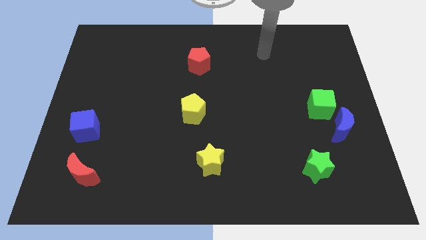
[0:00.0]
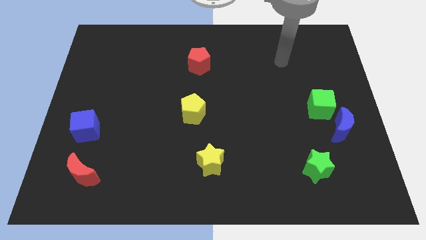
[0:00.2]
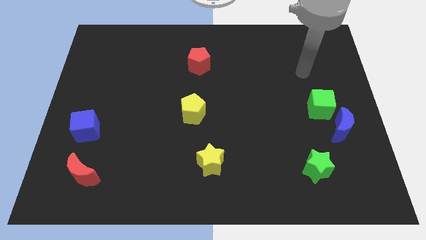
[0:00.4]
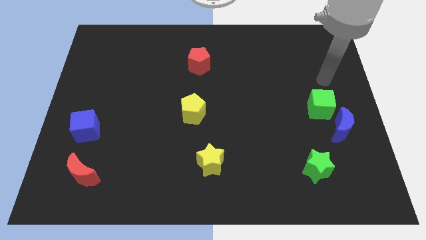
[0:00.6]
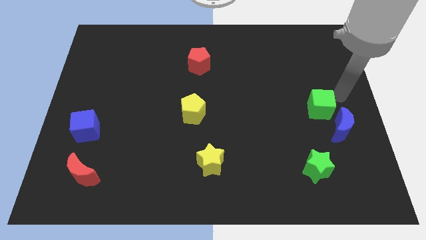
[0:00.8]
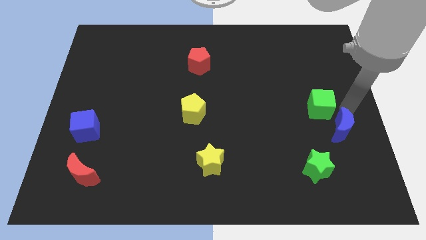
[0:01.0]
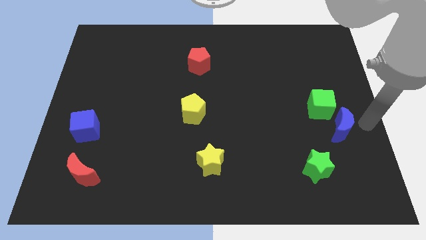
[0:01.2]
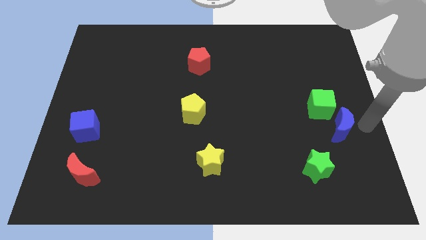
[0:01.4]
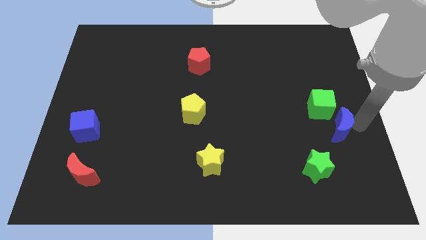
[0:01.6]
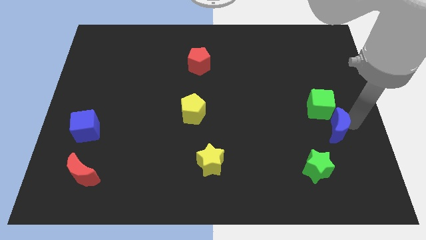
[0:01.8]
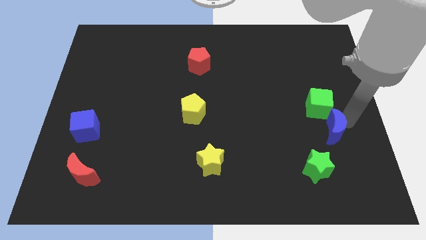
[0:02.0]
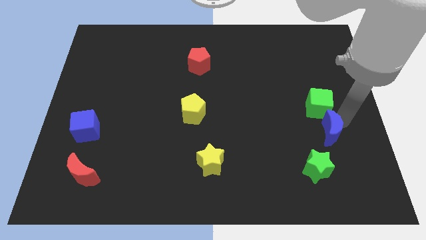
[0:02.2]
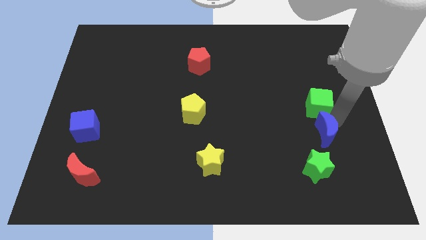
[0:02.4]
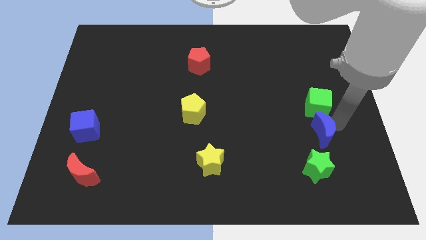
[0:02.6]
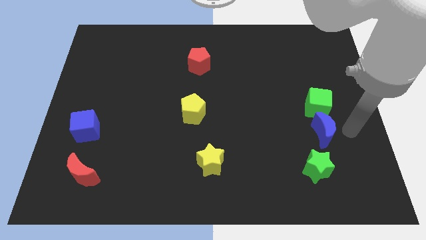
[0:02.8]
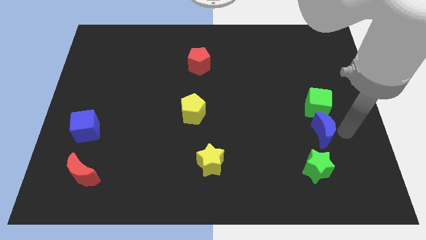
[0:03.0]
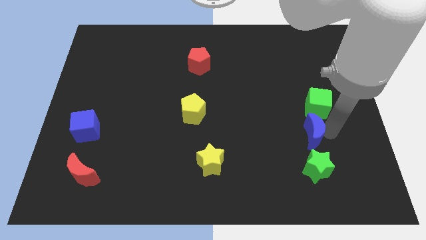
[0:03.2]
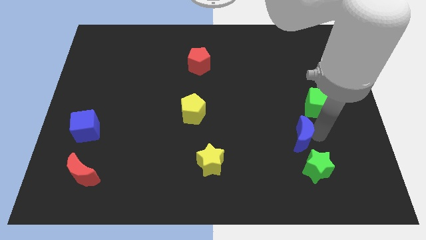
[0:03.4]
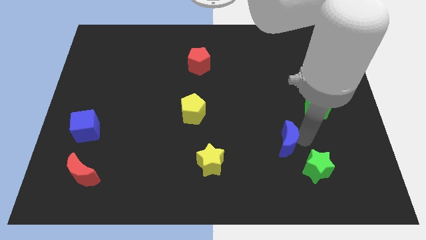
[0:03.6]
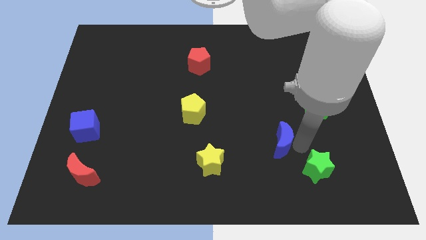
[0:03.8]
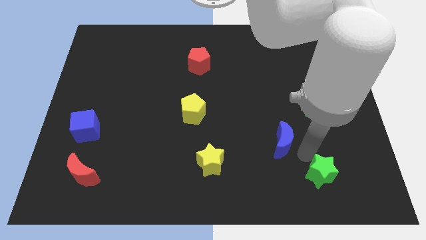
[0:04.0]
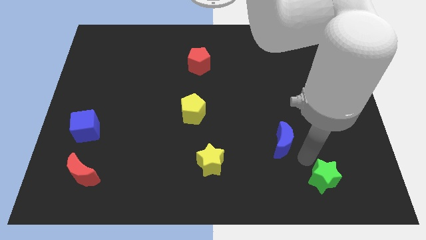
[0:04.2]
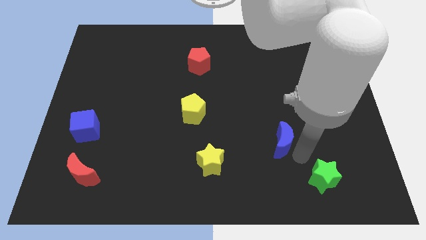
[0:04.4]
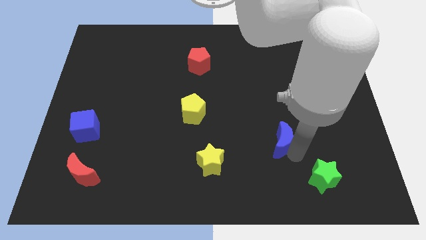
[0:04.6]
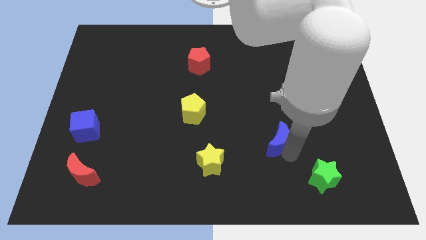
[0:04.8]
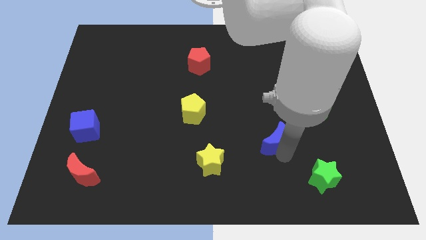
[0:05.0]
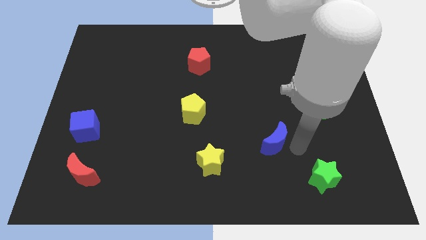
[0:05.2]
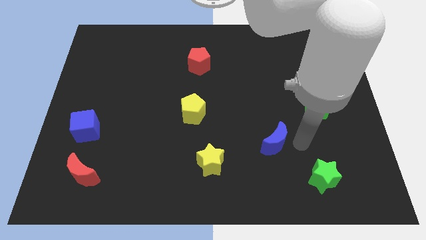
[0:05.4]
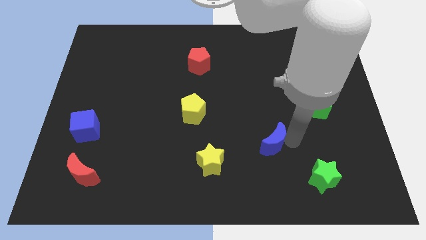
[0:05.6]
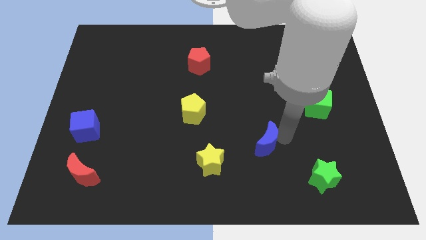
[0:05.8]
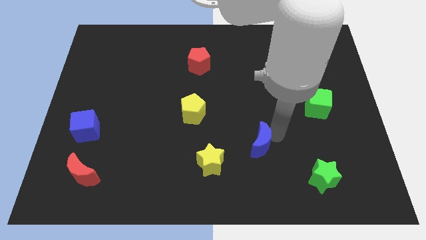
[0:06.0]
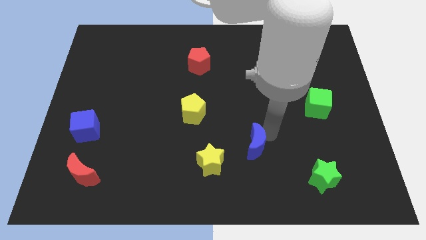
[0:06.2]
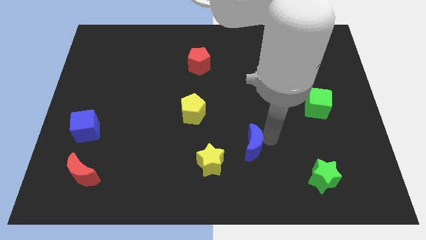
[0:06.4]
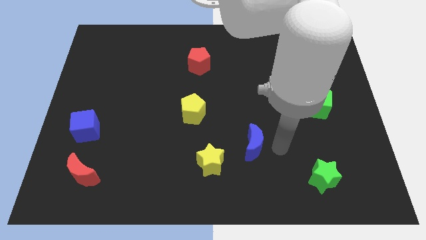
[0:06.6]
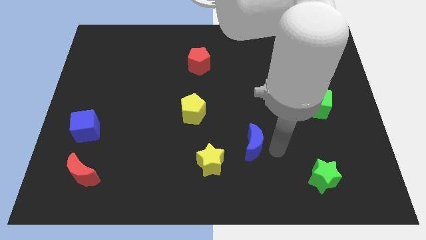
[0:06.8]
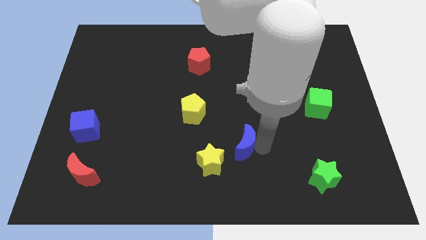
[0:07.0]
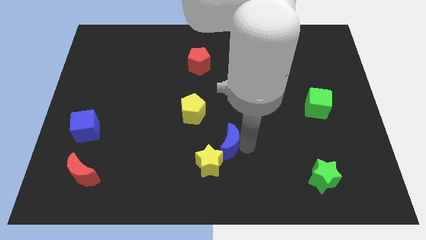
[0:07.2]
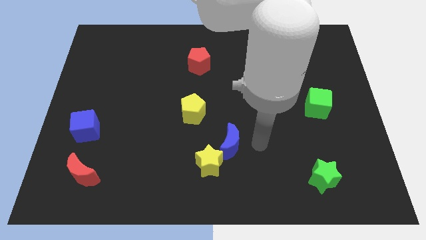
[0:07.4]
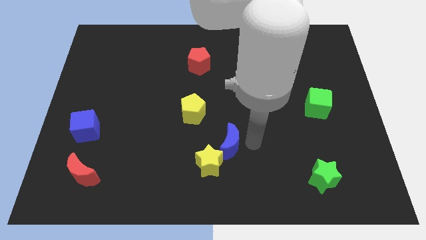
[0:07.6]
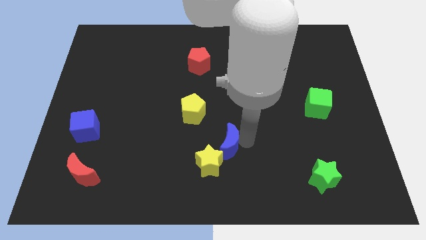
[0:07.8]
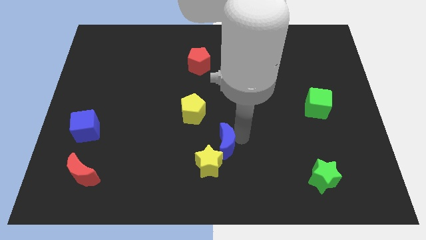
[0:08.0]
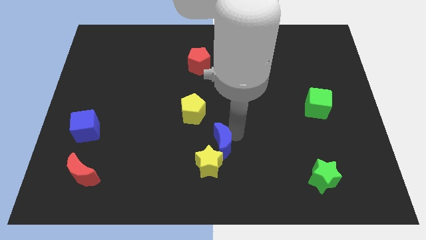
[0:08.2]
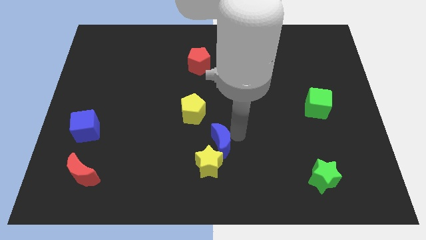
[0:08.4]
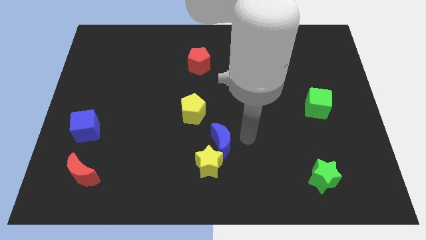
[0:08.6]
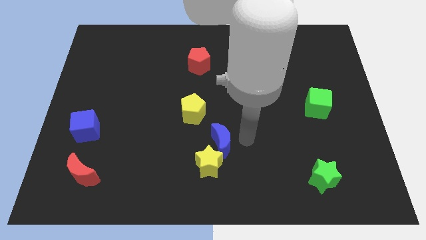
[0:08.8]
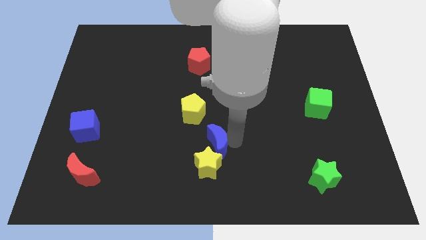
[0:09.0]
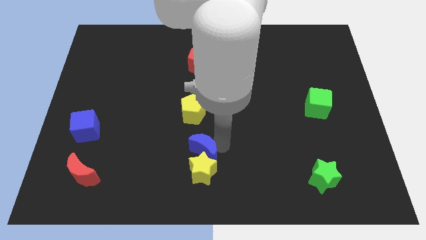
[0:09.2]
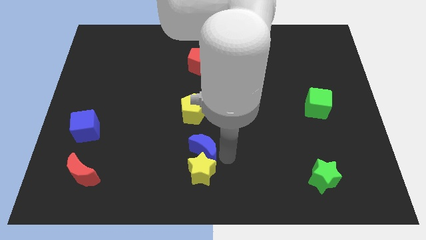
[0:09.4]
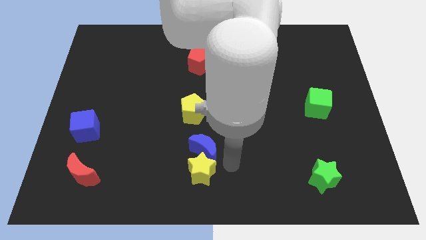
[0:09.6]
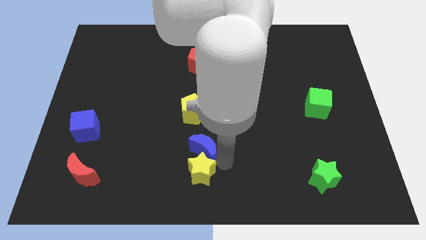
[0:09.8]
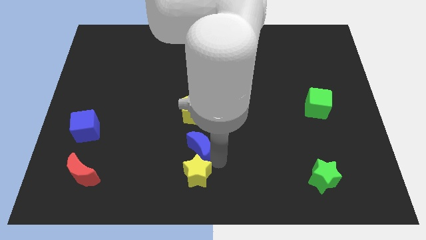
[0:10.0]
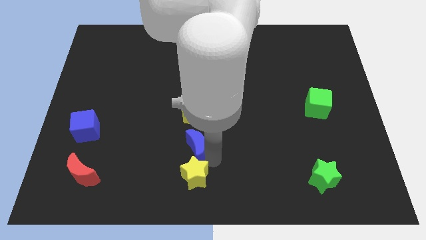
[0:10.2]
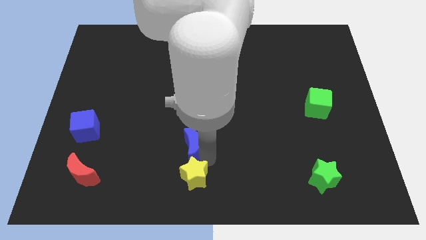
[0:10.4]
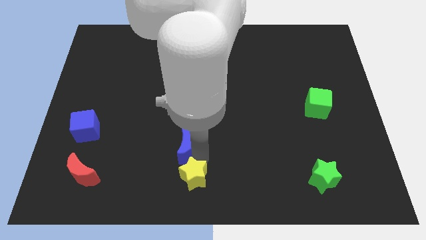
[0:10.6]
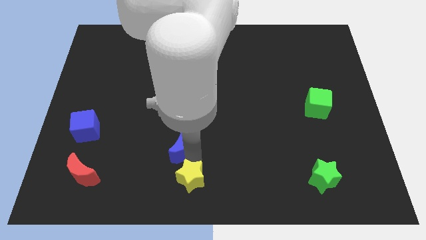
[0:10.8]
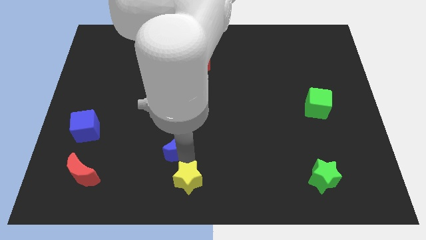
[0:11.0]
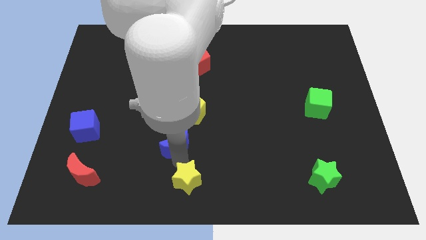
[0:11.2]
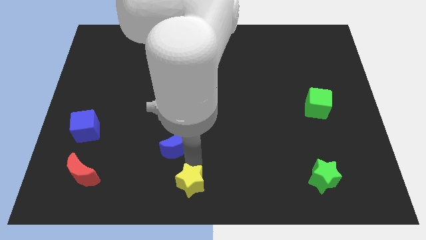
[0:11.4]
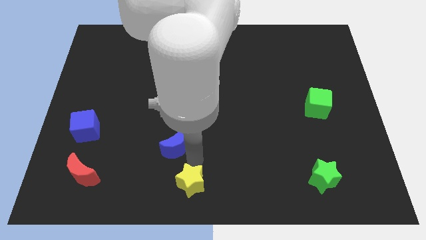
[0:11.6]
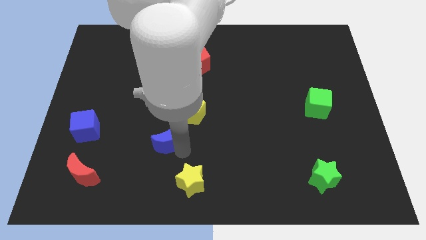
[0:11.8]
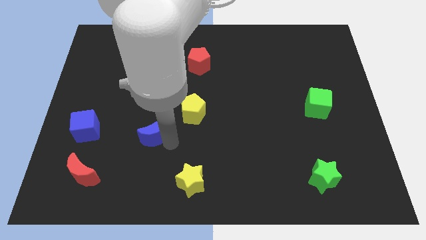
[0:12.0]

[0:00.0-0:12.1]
push the blue moon just right of the blue cube
